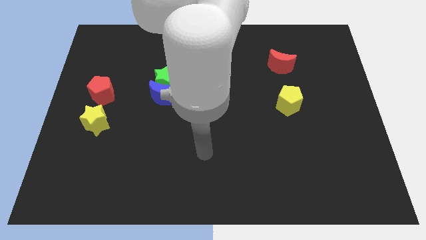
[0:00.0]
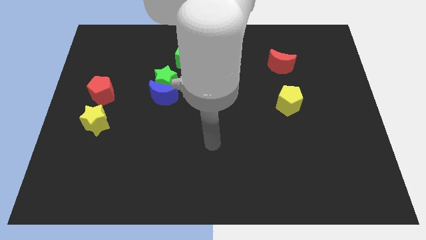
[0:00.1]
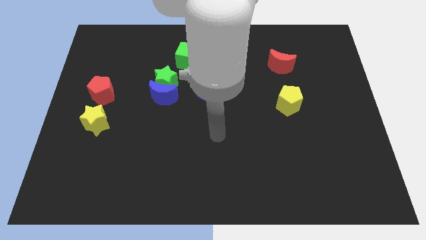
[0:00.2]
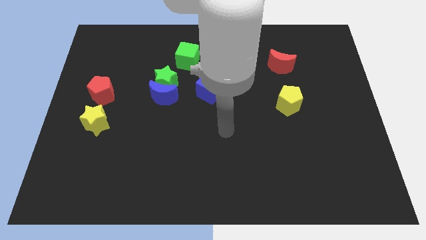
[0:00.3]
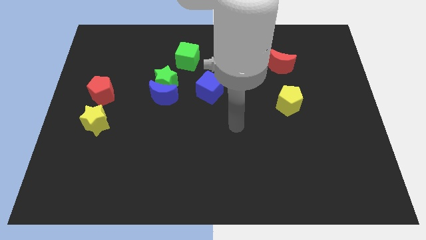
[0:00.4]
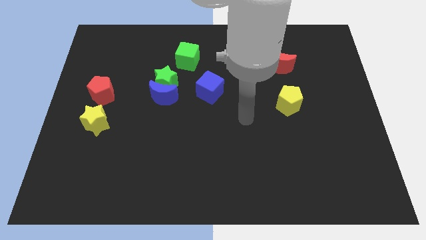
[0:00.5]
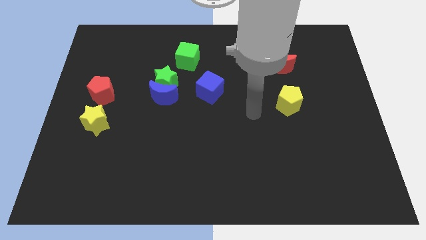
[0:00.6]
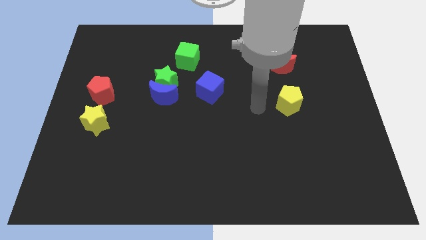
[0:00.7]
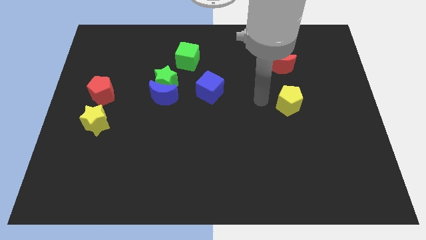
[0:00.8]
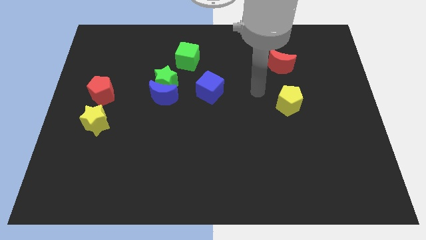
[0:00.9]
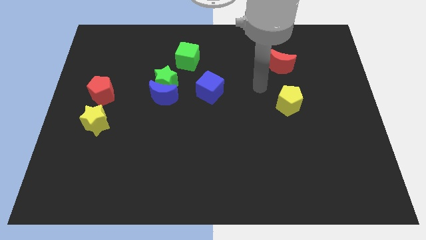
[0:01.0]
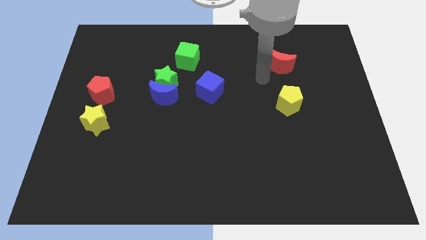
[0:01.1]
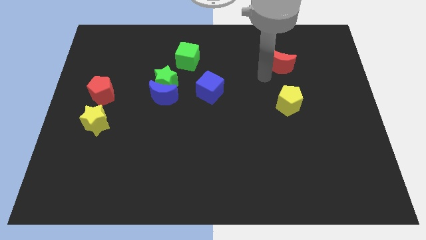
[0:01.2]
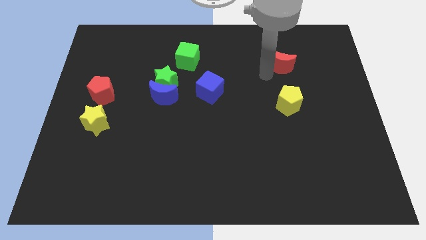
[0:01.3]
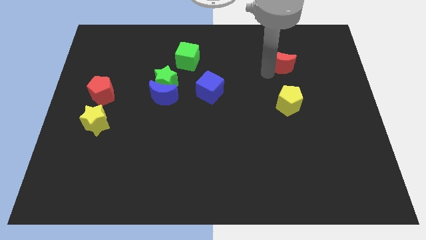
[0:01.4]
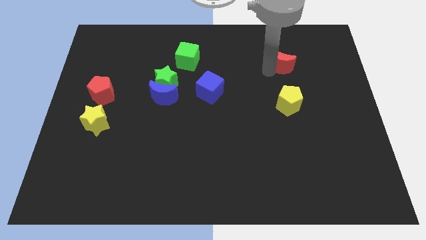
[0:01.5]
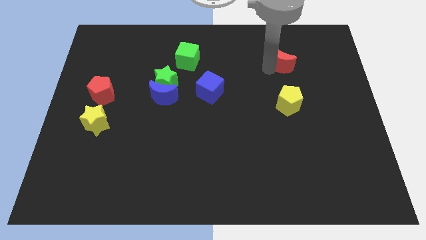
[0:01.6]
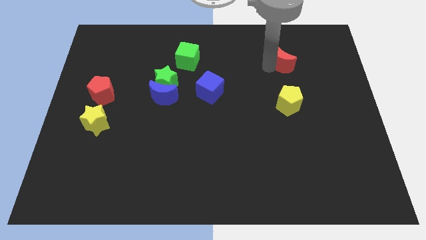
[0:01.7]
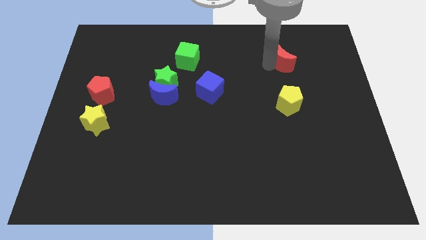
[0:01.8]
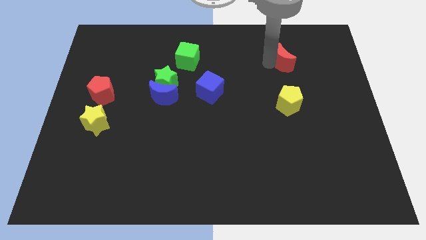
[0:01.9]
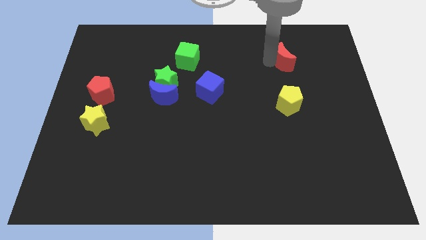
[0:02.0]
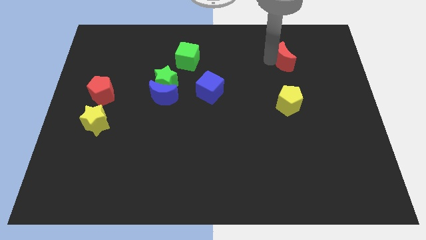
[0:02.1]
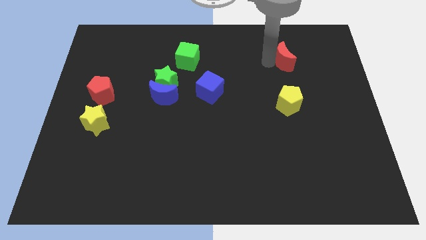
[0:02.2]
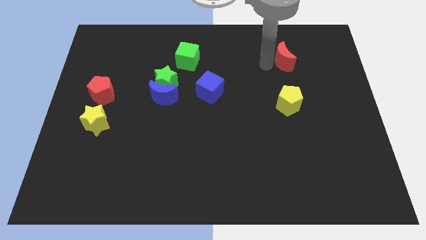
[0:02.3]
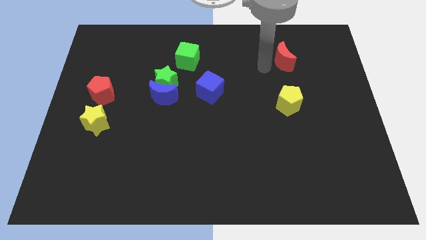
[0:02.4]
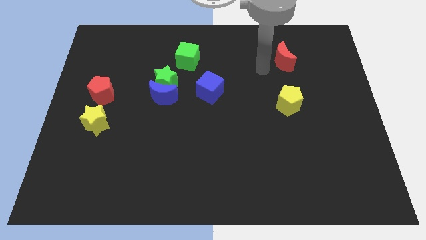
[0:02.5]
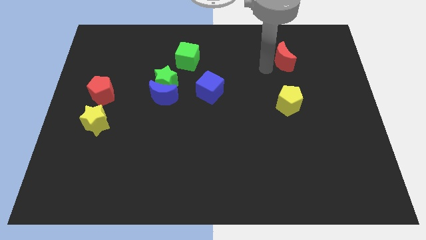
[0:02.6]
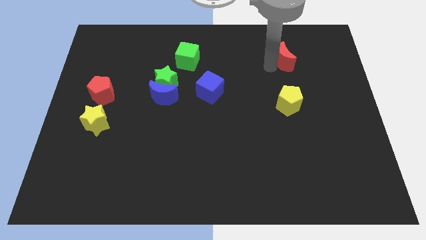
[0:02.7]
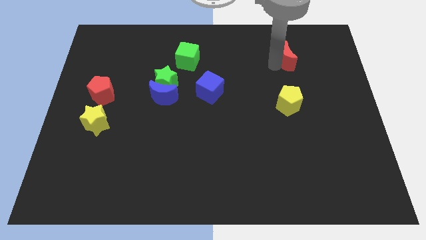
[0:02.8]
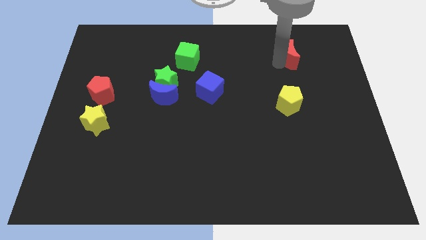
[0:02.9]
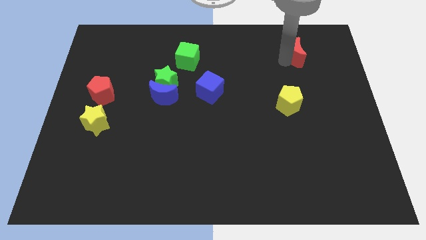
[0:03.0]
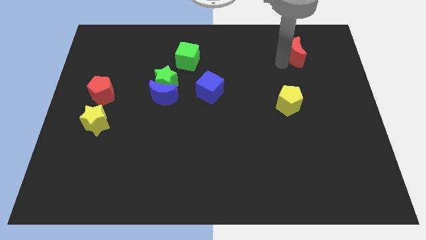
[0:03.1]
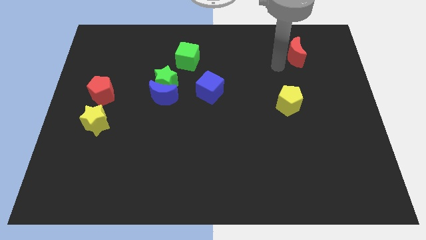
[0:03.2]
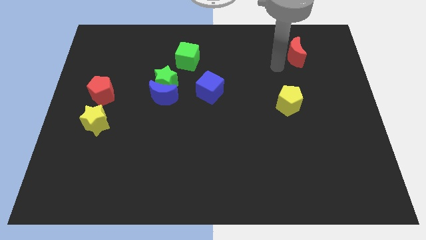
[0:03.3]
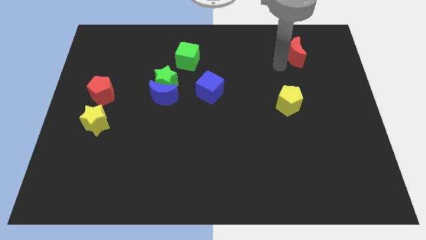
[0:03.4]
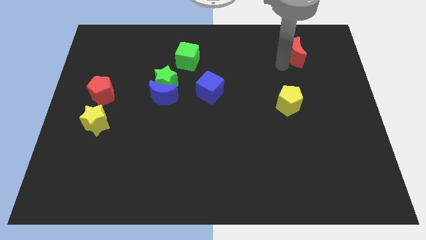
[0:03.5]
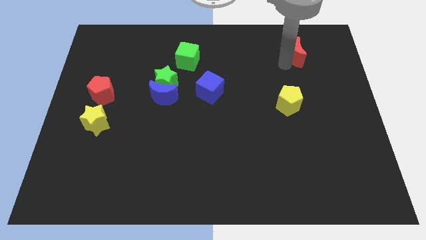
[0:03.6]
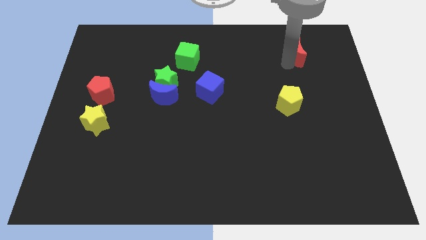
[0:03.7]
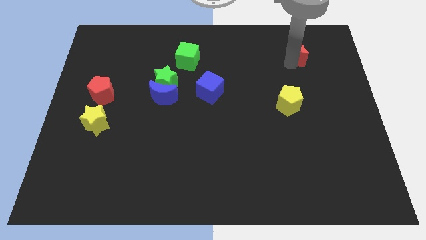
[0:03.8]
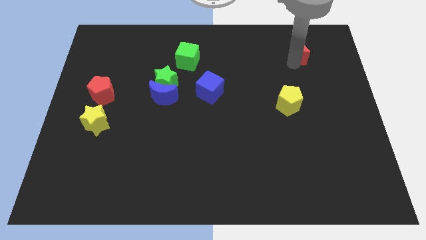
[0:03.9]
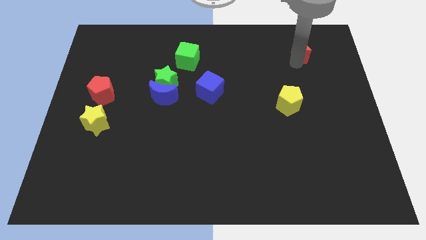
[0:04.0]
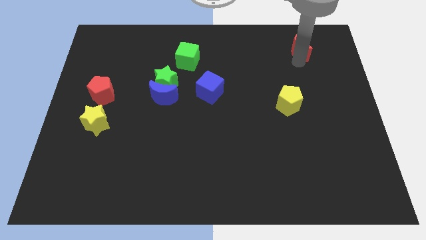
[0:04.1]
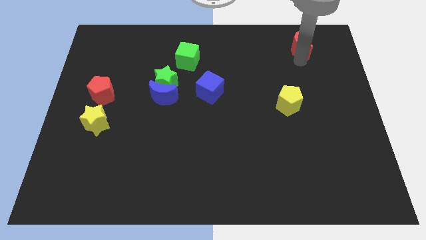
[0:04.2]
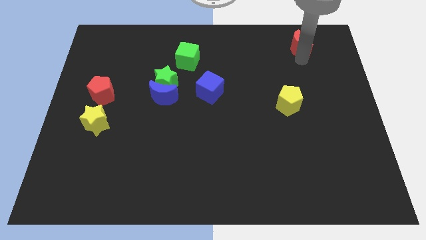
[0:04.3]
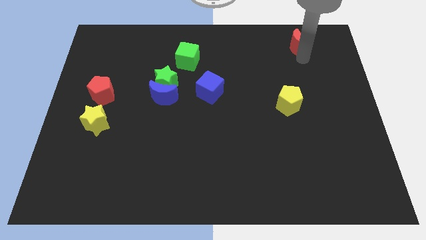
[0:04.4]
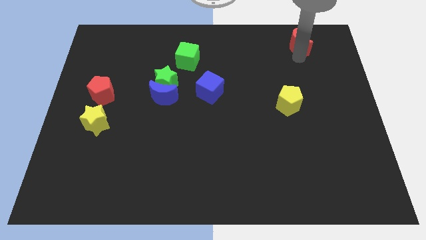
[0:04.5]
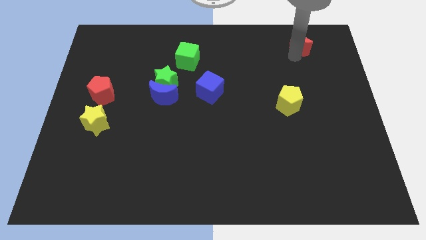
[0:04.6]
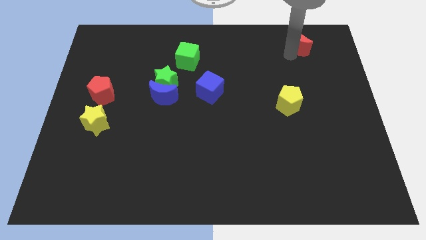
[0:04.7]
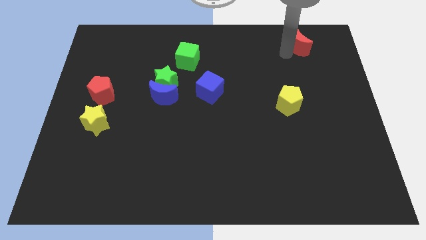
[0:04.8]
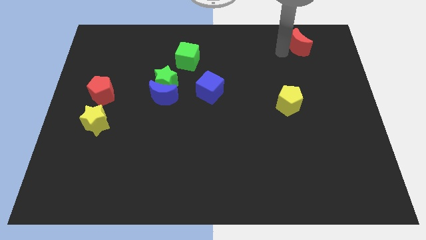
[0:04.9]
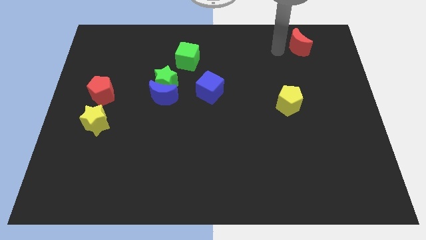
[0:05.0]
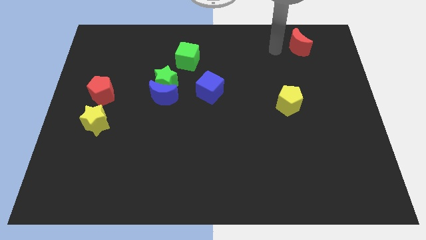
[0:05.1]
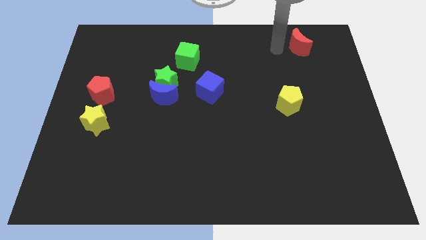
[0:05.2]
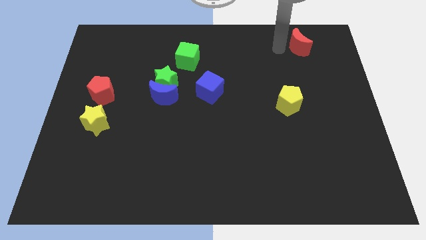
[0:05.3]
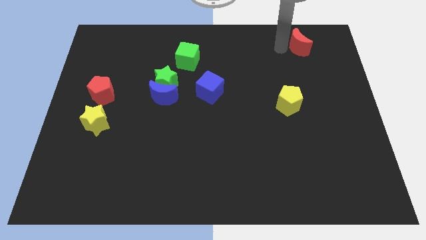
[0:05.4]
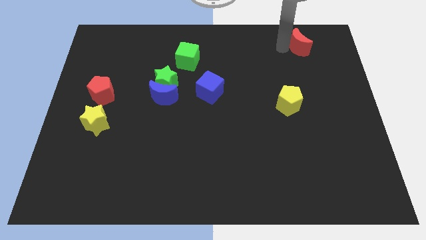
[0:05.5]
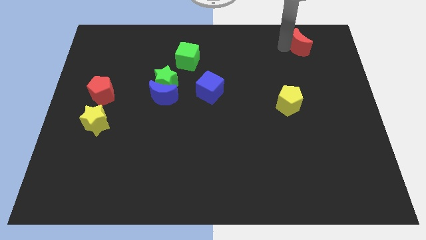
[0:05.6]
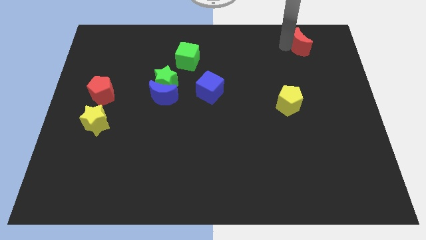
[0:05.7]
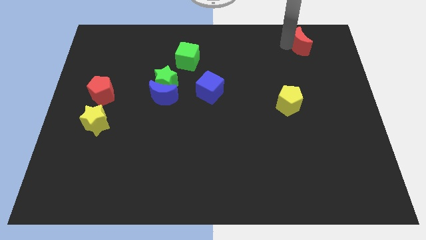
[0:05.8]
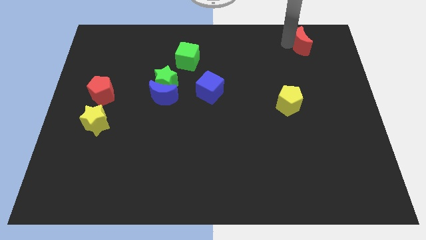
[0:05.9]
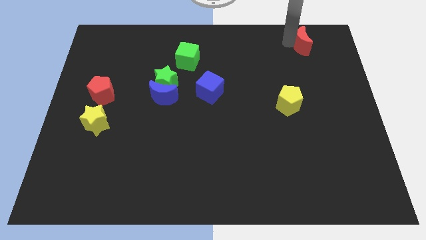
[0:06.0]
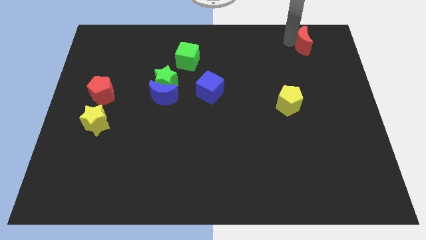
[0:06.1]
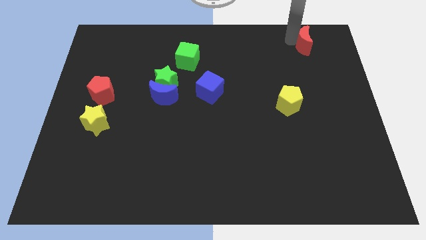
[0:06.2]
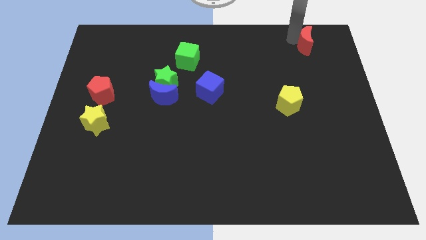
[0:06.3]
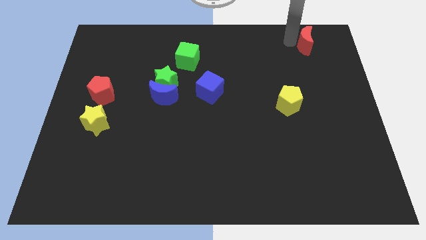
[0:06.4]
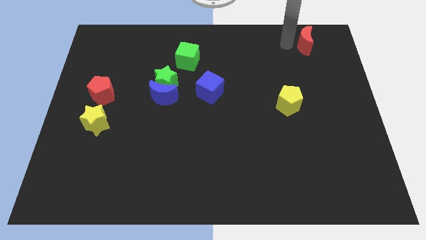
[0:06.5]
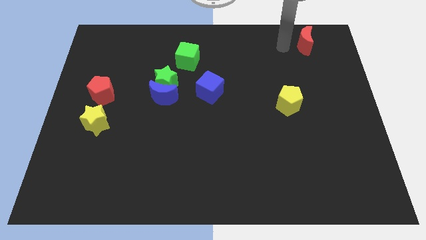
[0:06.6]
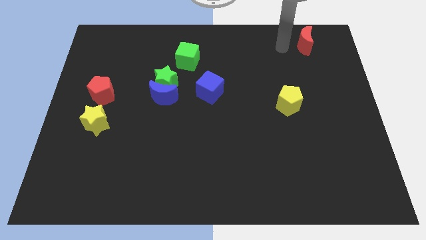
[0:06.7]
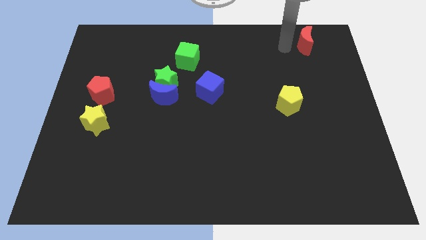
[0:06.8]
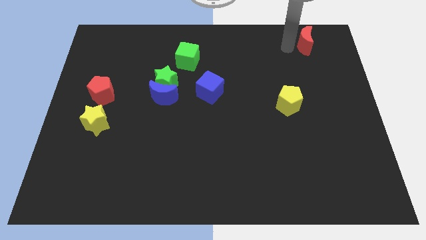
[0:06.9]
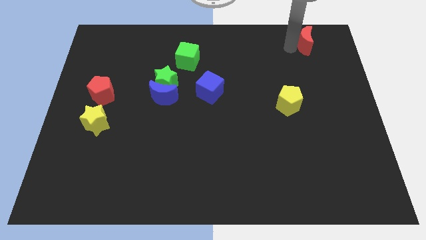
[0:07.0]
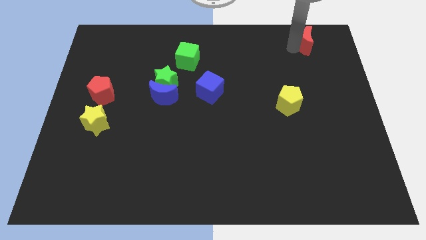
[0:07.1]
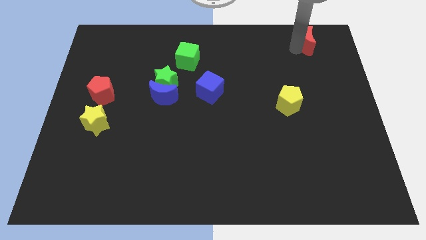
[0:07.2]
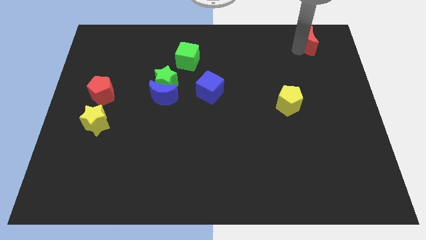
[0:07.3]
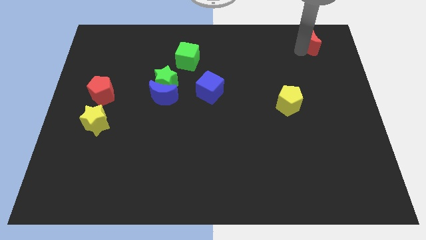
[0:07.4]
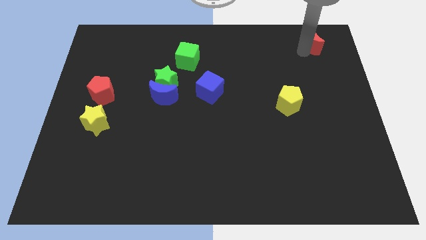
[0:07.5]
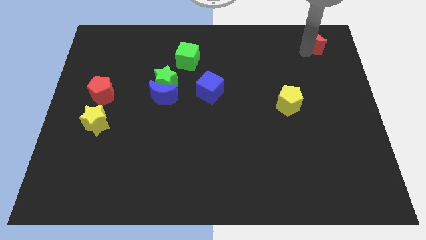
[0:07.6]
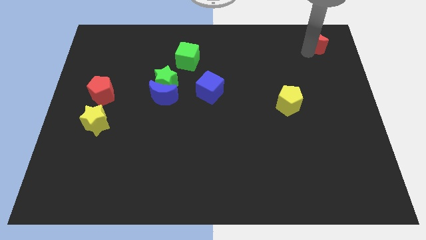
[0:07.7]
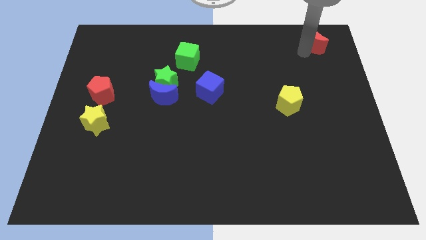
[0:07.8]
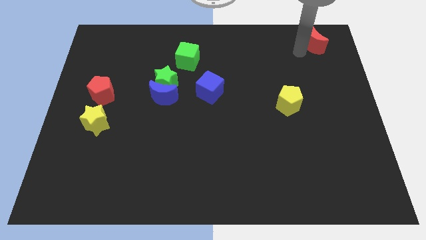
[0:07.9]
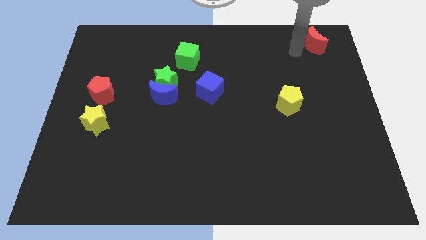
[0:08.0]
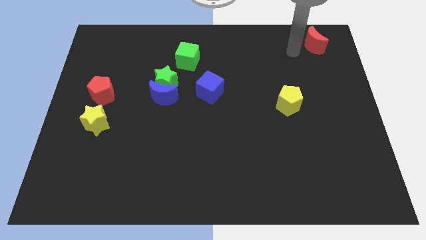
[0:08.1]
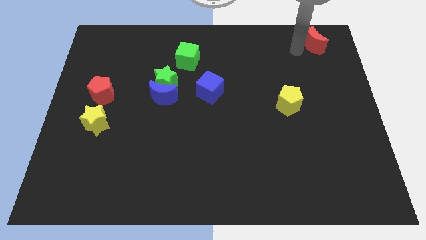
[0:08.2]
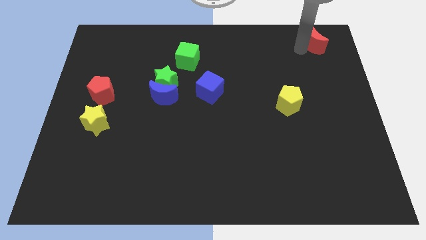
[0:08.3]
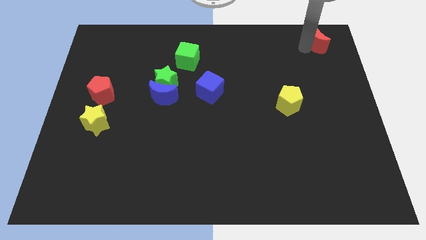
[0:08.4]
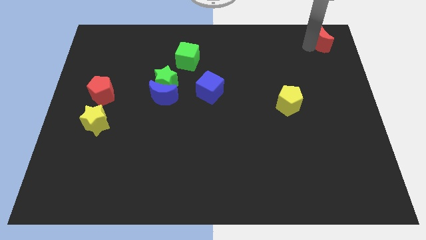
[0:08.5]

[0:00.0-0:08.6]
slide the red moon to the top right of the board
